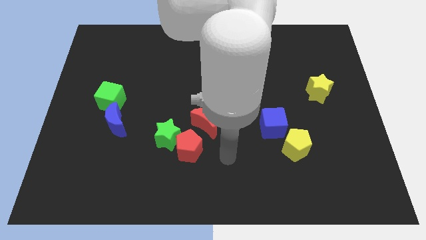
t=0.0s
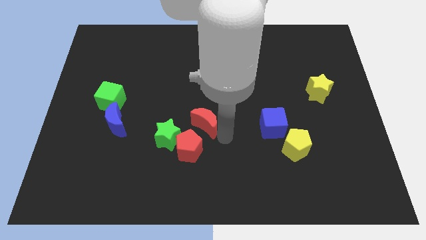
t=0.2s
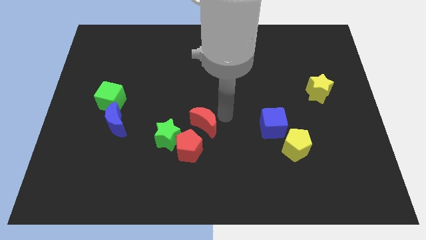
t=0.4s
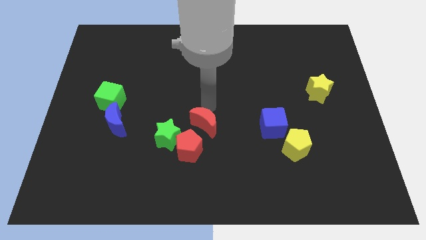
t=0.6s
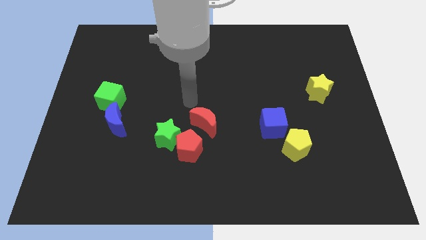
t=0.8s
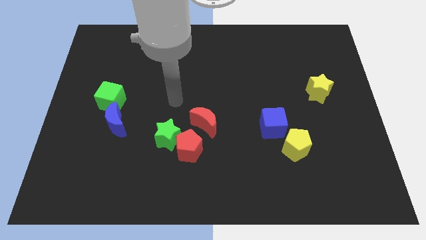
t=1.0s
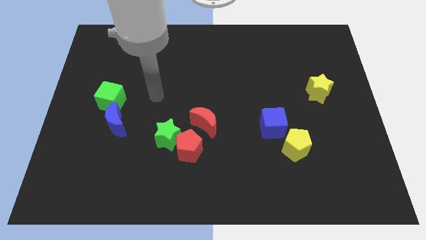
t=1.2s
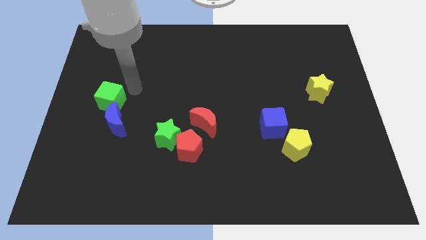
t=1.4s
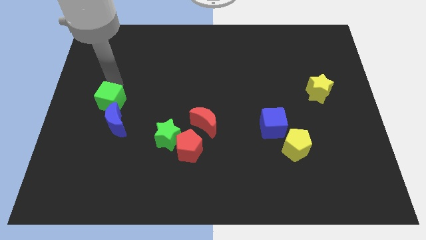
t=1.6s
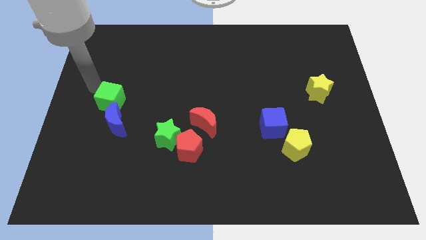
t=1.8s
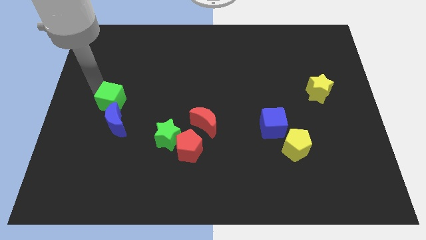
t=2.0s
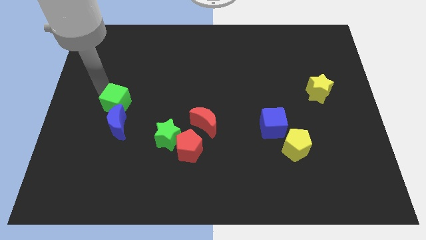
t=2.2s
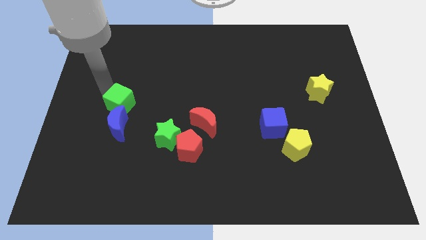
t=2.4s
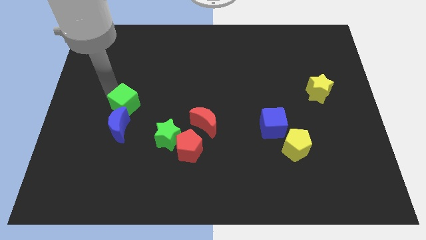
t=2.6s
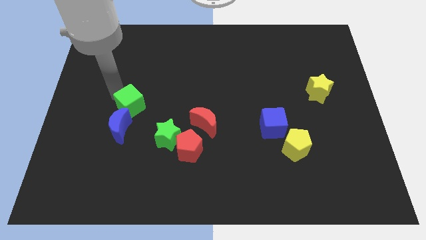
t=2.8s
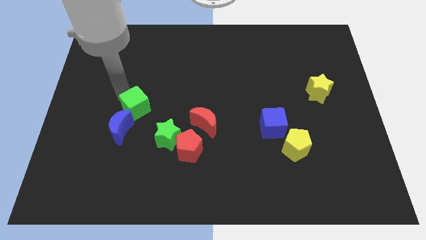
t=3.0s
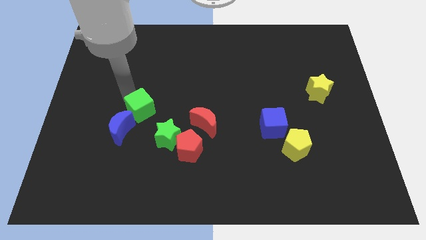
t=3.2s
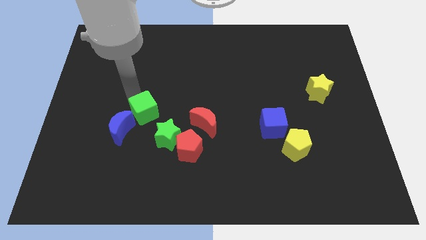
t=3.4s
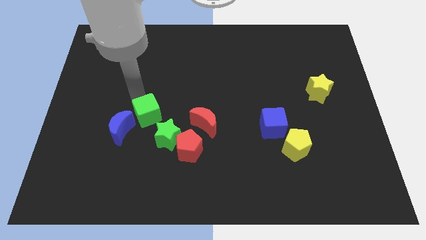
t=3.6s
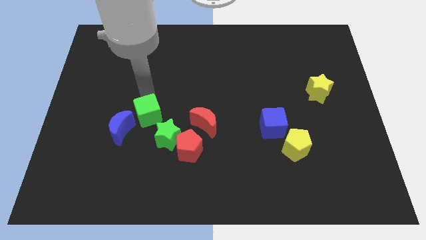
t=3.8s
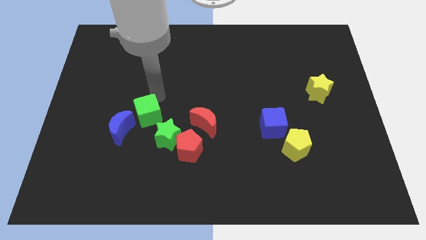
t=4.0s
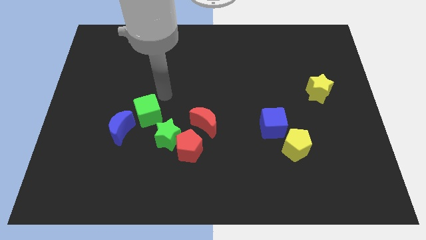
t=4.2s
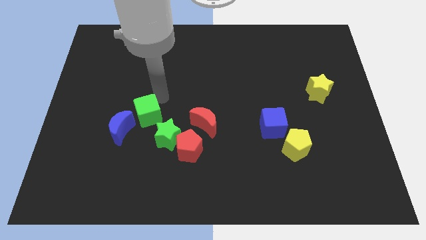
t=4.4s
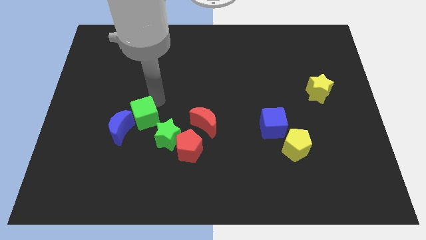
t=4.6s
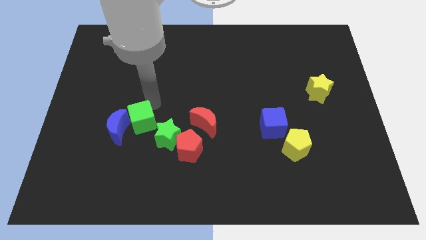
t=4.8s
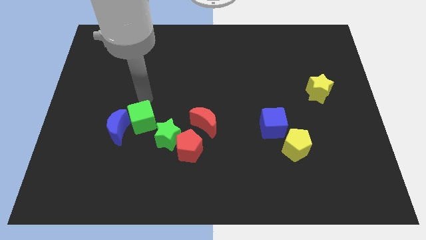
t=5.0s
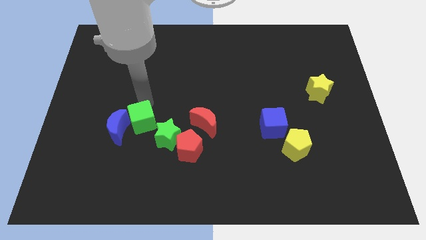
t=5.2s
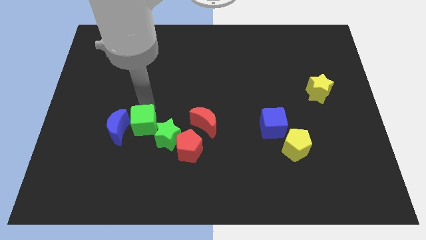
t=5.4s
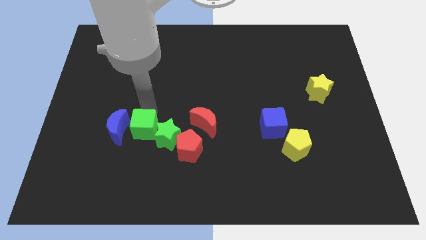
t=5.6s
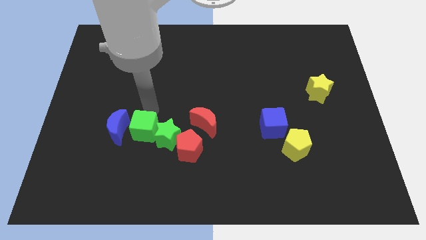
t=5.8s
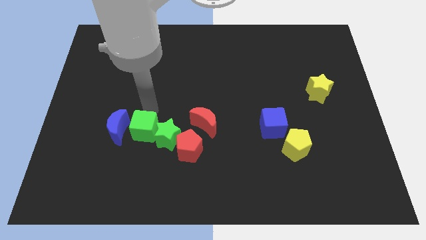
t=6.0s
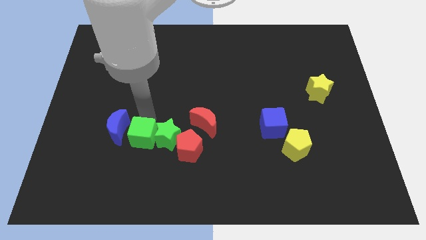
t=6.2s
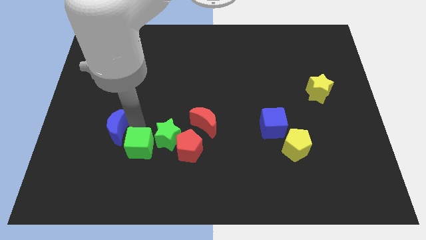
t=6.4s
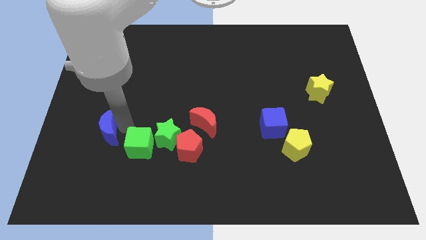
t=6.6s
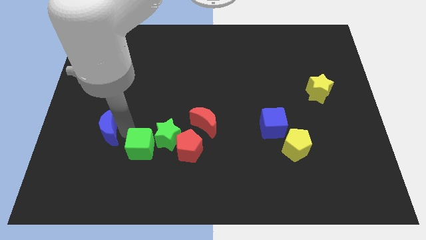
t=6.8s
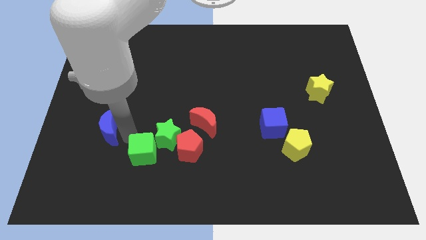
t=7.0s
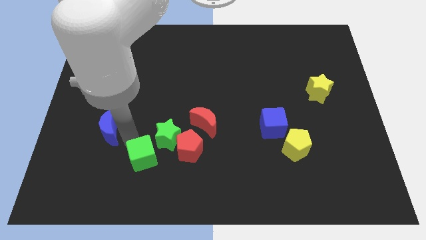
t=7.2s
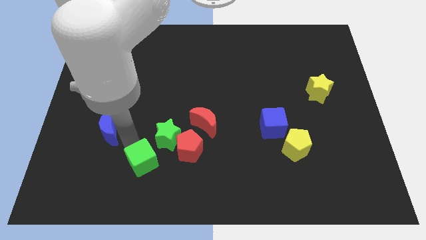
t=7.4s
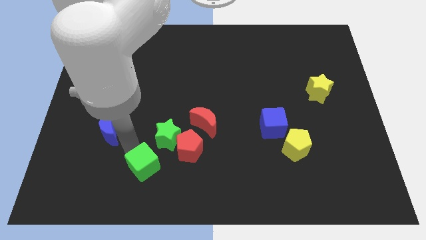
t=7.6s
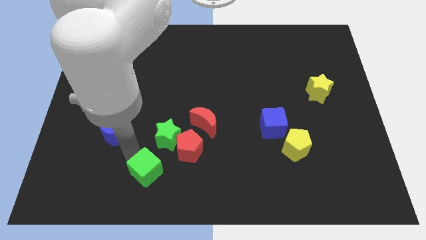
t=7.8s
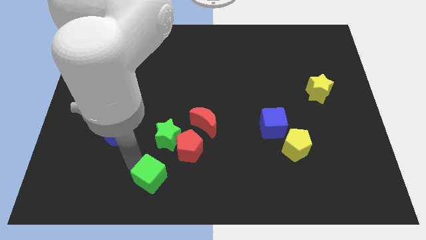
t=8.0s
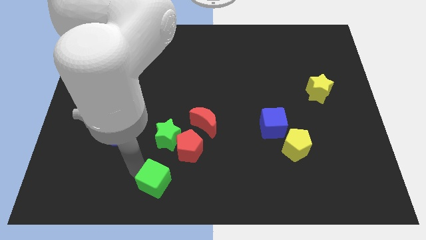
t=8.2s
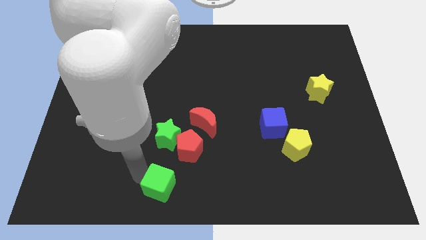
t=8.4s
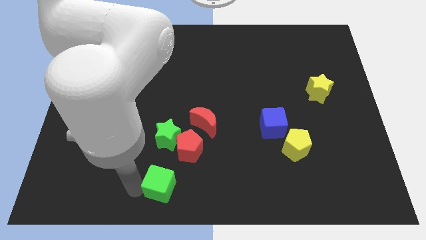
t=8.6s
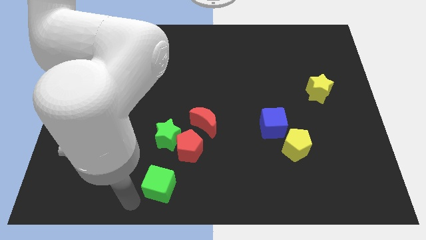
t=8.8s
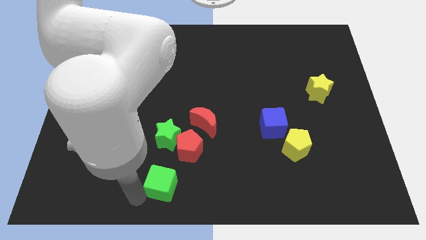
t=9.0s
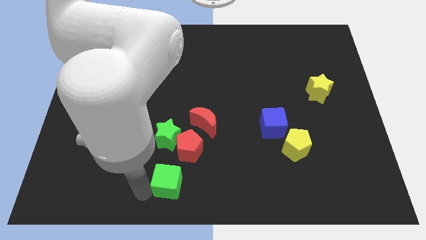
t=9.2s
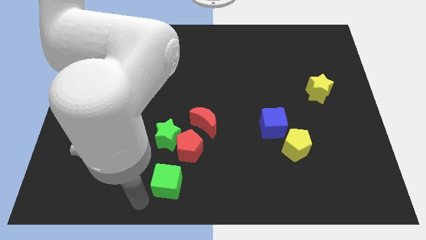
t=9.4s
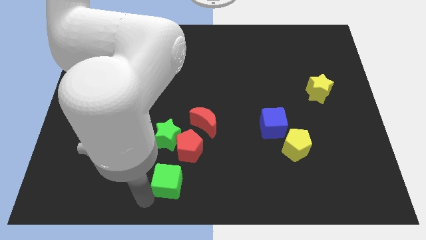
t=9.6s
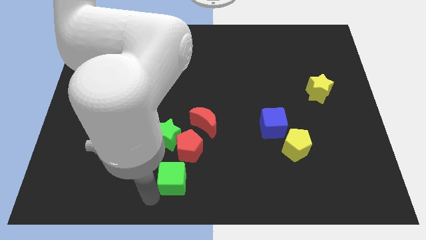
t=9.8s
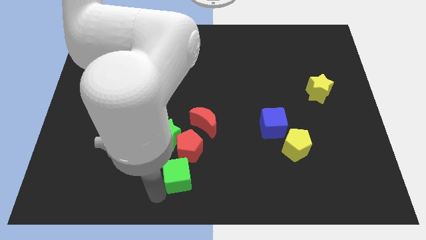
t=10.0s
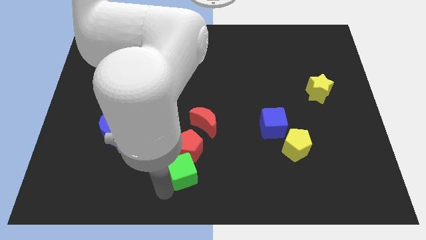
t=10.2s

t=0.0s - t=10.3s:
put the green cube below the red moon

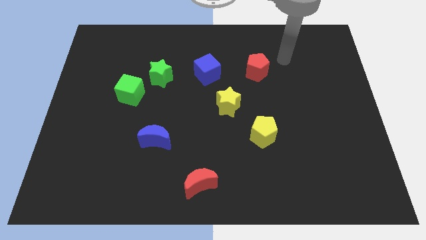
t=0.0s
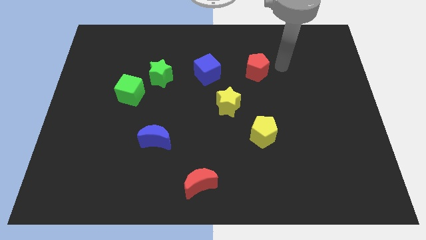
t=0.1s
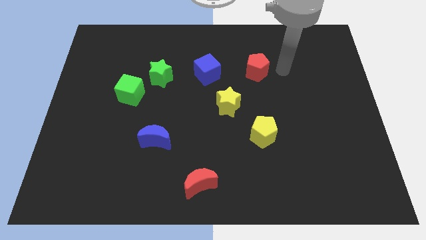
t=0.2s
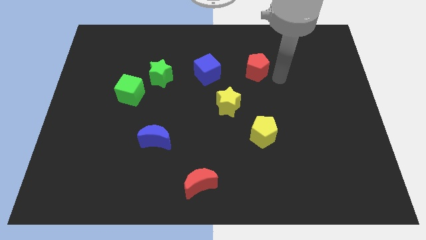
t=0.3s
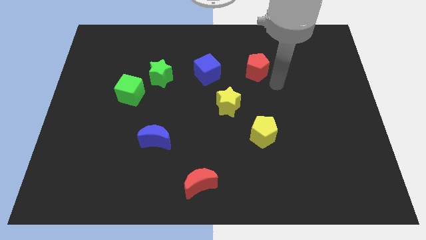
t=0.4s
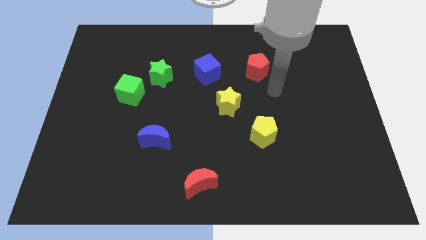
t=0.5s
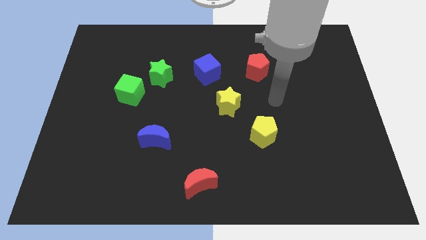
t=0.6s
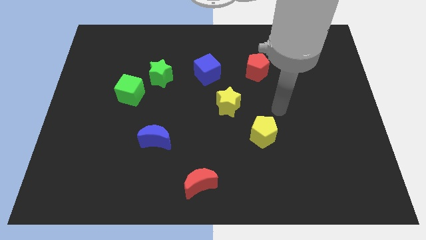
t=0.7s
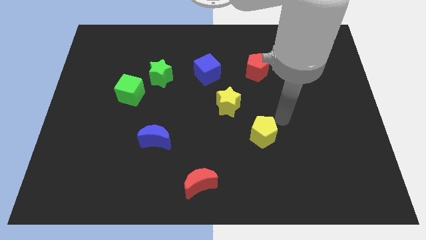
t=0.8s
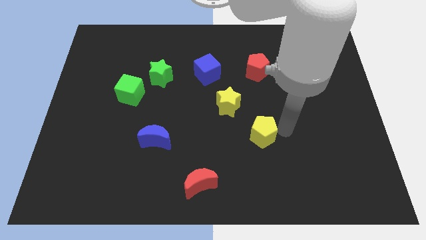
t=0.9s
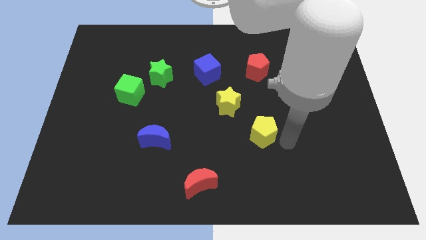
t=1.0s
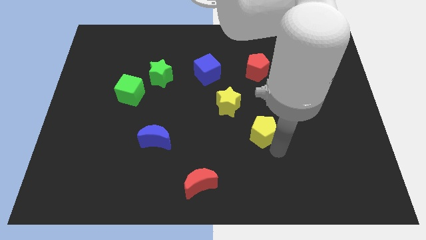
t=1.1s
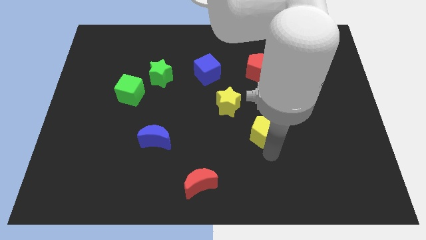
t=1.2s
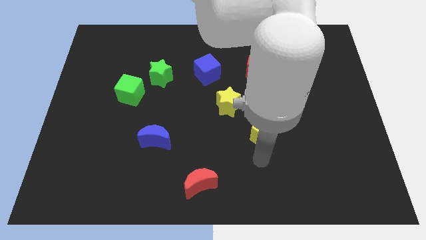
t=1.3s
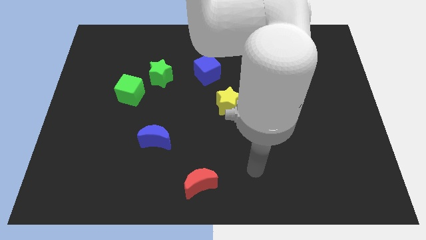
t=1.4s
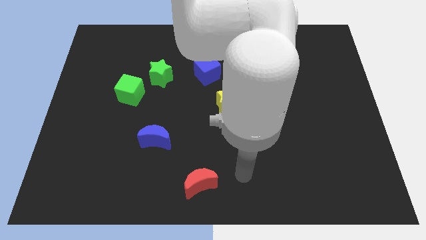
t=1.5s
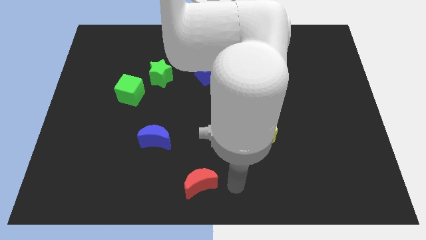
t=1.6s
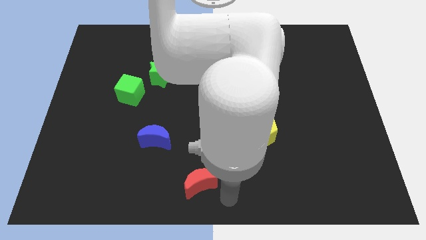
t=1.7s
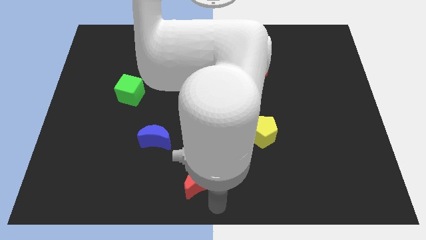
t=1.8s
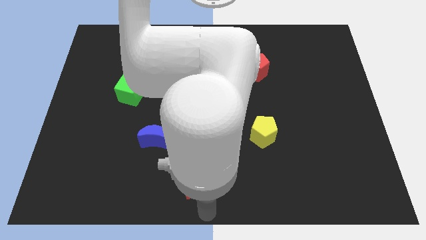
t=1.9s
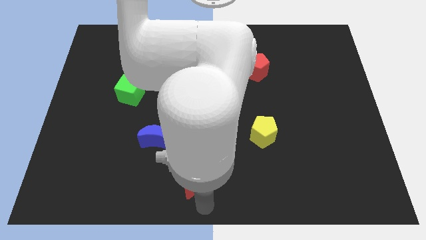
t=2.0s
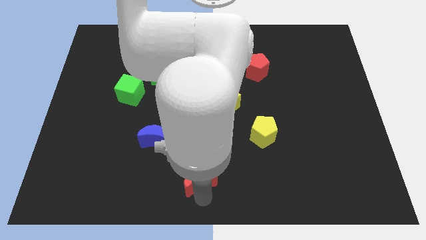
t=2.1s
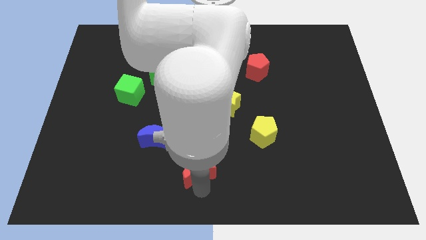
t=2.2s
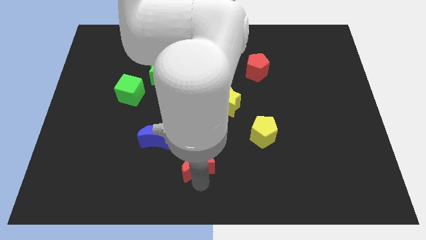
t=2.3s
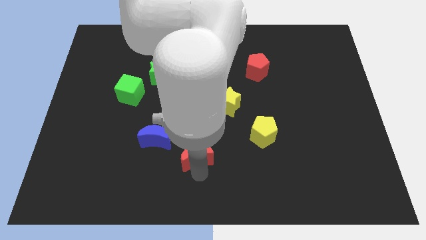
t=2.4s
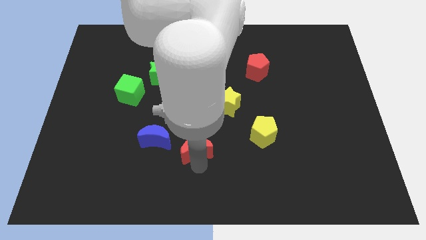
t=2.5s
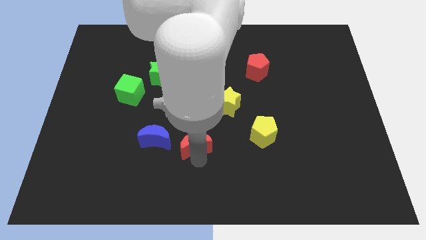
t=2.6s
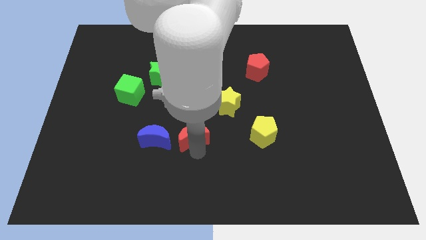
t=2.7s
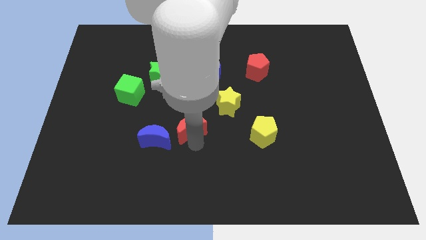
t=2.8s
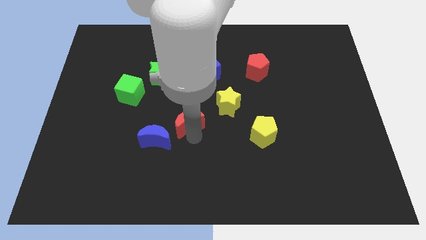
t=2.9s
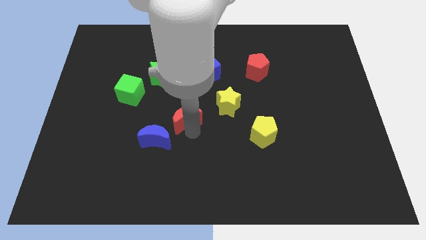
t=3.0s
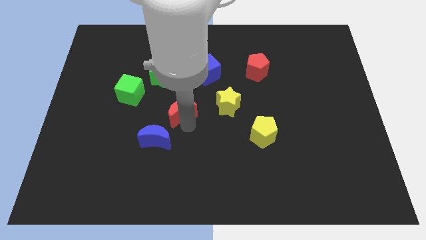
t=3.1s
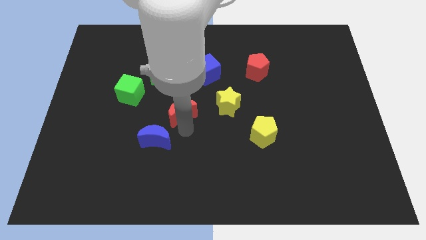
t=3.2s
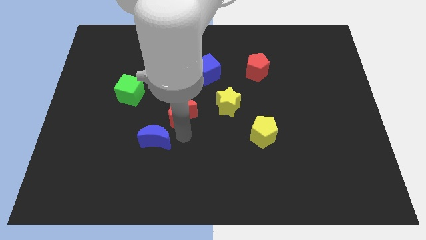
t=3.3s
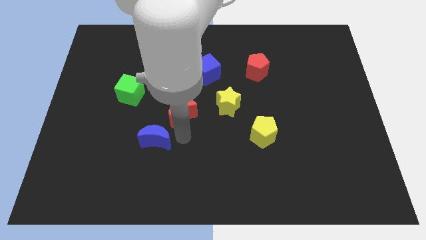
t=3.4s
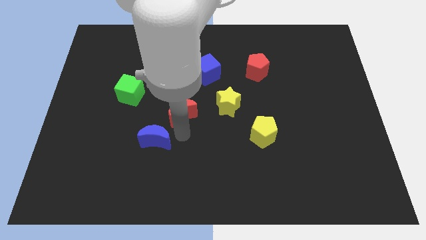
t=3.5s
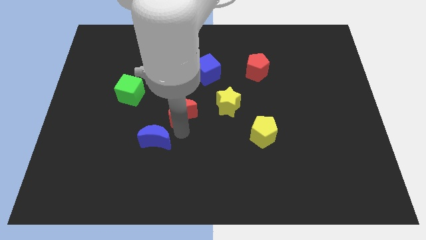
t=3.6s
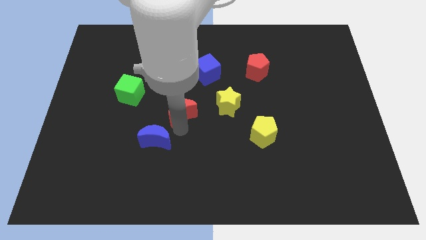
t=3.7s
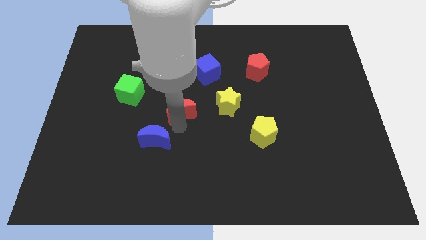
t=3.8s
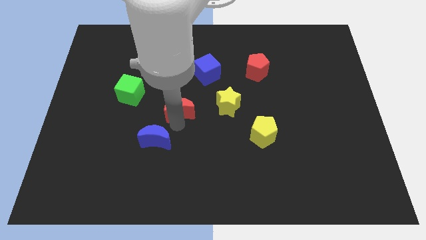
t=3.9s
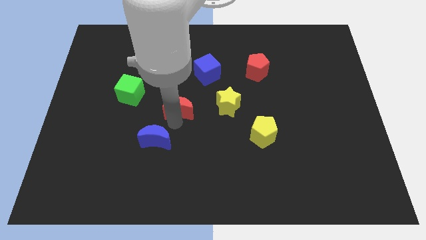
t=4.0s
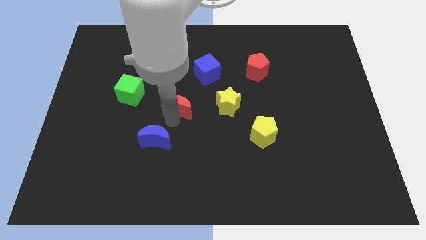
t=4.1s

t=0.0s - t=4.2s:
push the red moon diagonally down and to the right of the green star
